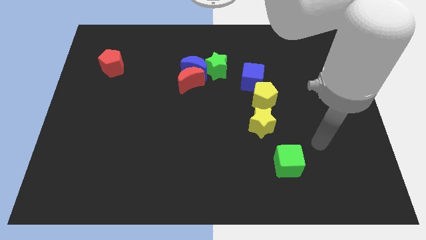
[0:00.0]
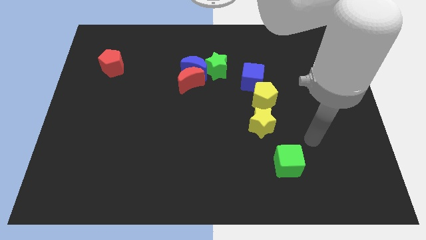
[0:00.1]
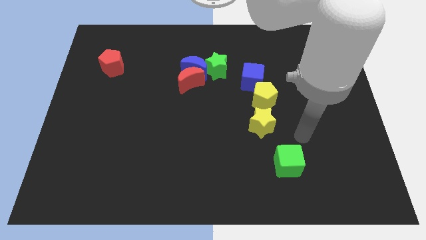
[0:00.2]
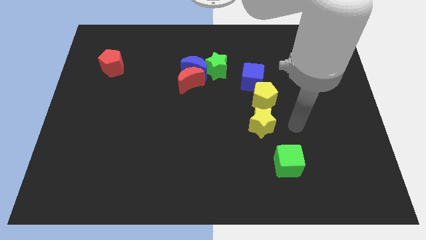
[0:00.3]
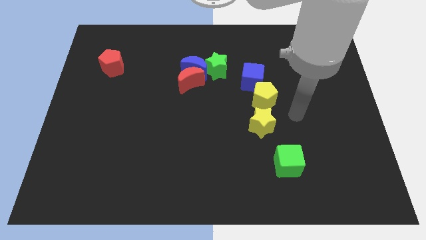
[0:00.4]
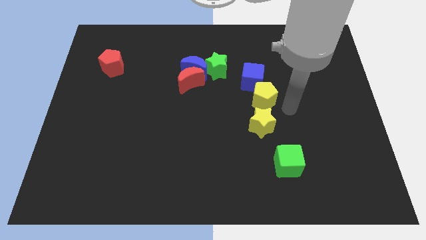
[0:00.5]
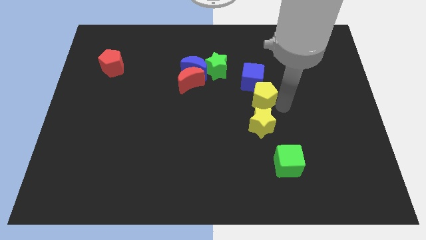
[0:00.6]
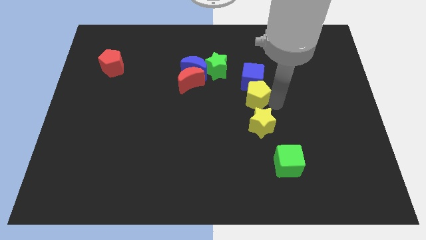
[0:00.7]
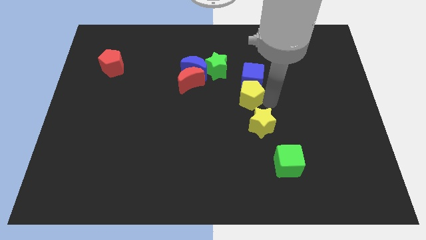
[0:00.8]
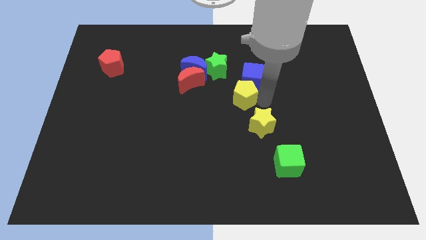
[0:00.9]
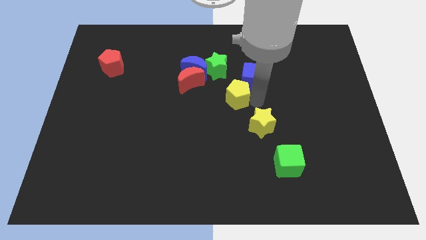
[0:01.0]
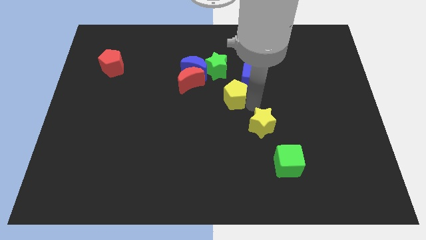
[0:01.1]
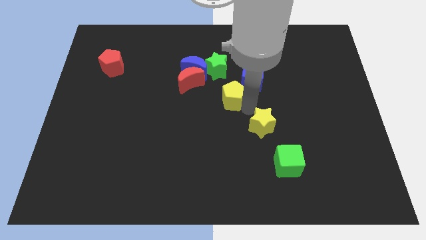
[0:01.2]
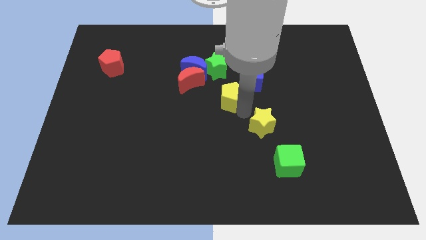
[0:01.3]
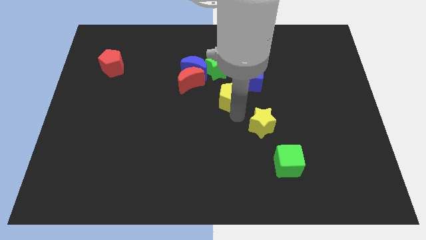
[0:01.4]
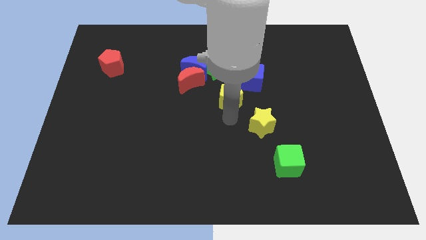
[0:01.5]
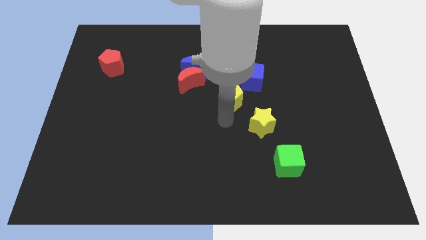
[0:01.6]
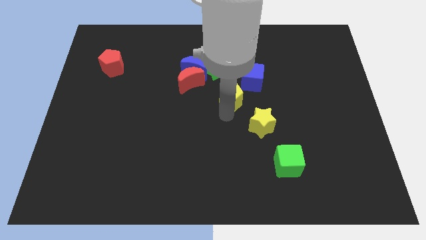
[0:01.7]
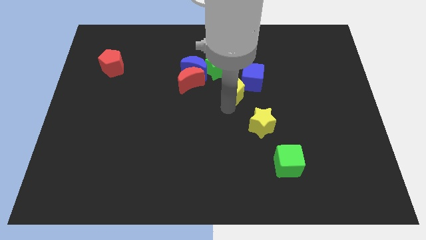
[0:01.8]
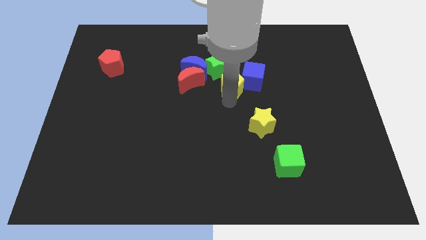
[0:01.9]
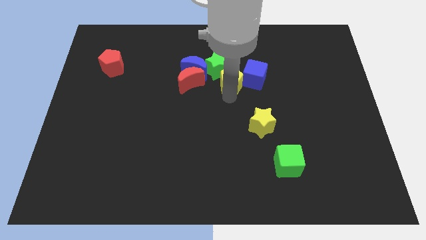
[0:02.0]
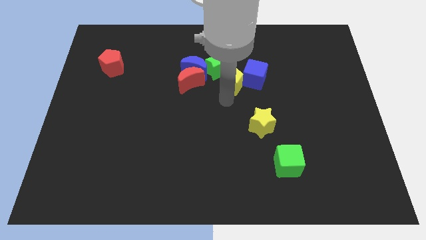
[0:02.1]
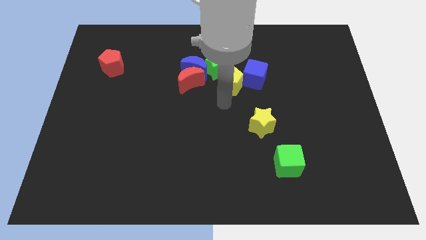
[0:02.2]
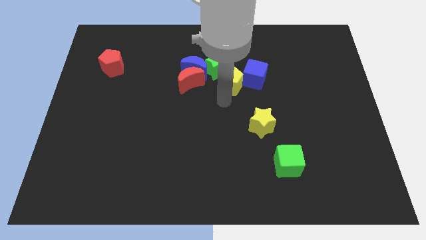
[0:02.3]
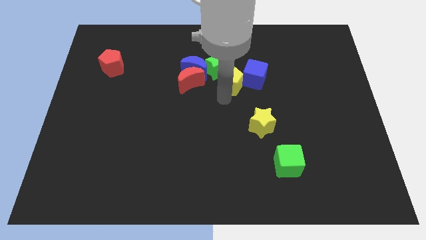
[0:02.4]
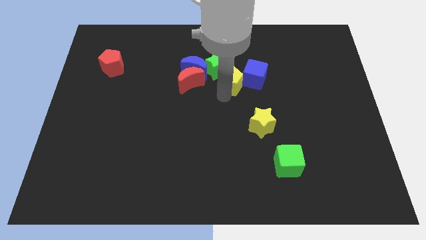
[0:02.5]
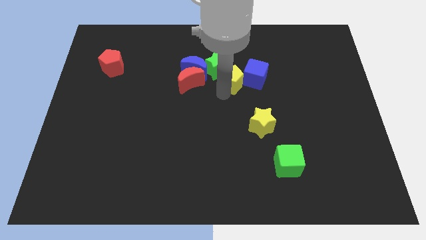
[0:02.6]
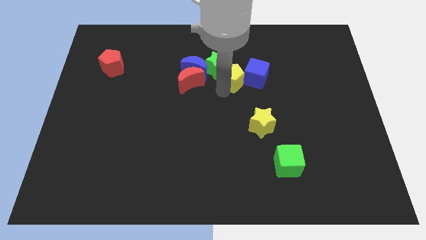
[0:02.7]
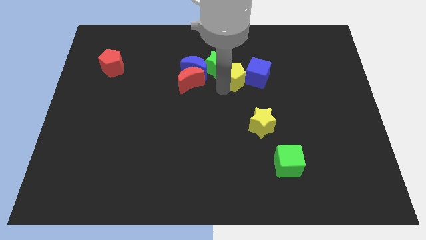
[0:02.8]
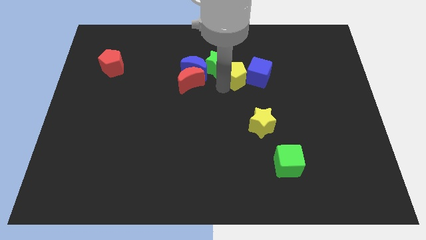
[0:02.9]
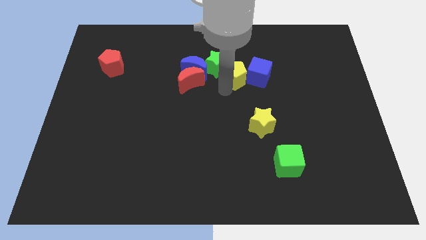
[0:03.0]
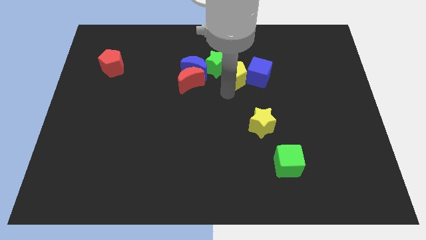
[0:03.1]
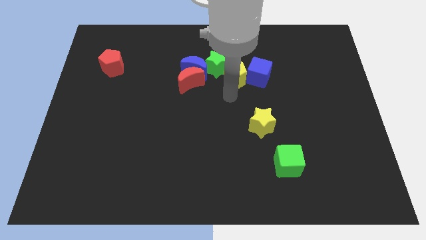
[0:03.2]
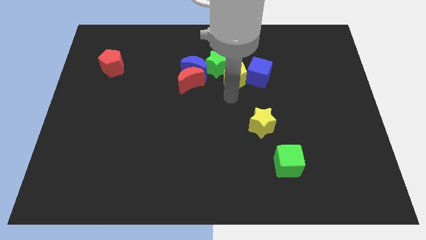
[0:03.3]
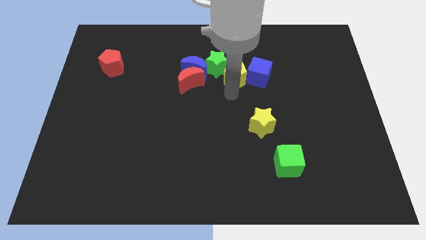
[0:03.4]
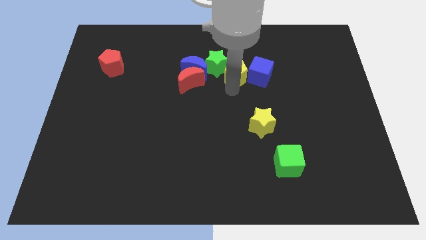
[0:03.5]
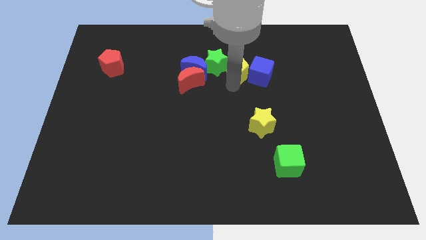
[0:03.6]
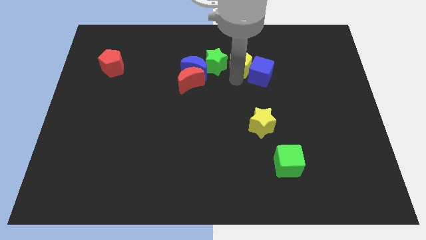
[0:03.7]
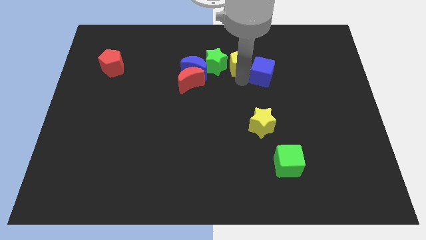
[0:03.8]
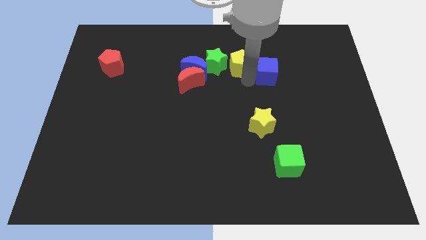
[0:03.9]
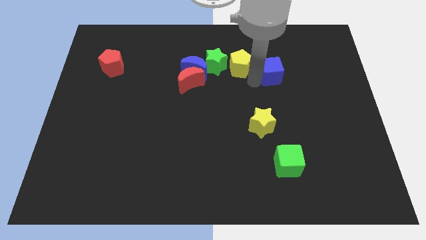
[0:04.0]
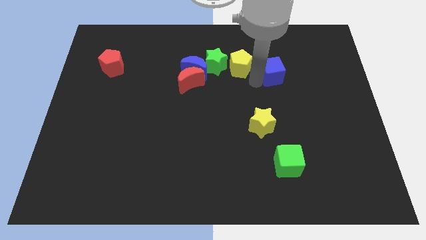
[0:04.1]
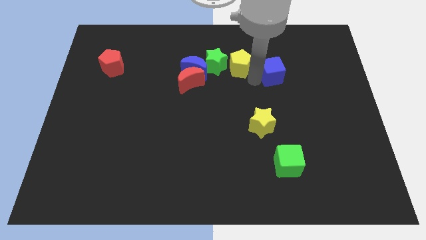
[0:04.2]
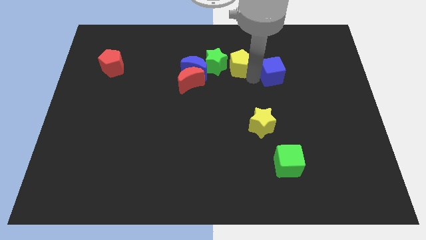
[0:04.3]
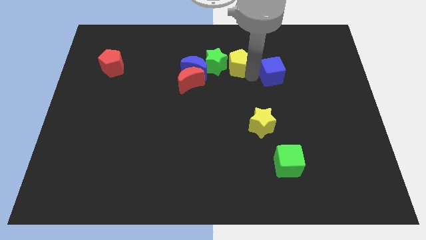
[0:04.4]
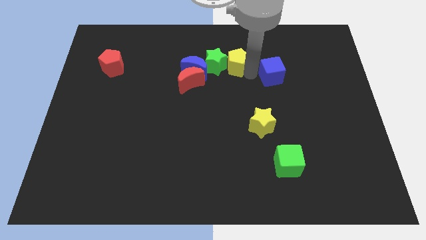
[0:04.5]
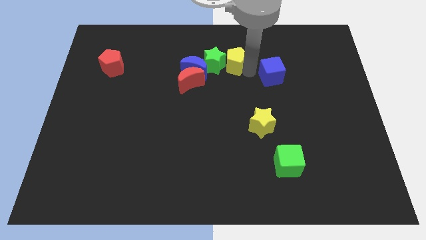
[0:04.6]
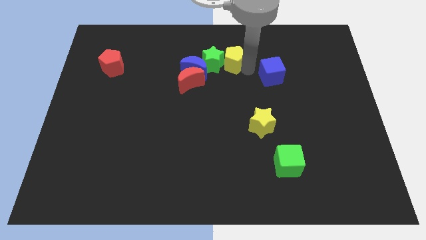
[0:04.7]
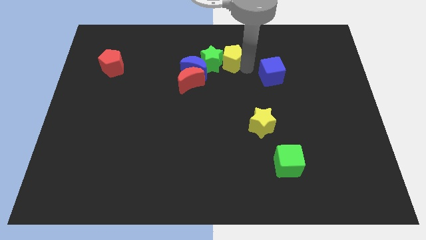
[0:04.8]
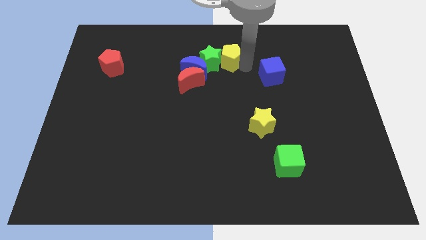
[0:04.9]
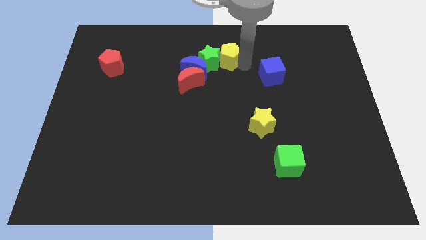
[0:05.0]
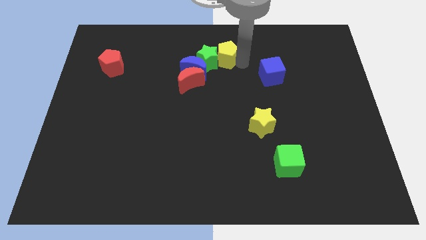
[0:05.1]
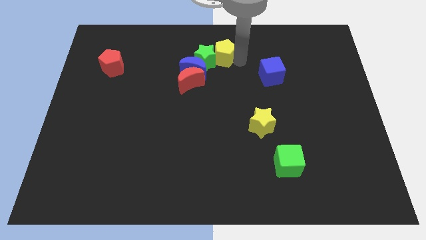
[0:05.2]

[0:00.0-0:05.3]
push the yellow pentagon to the top side
